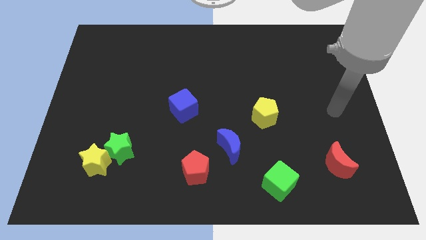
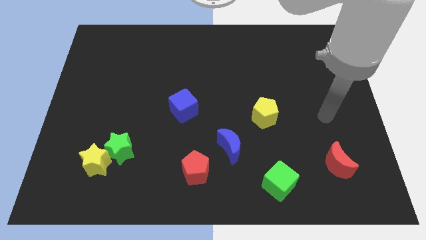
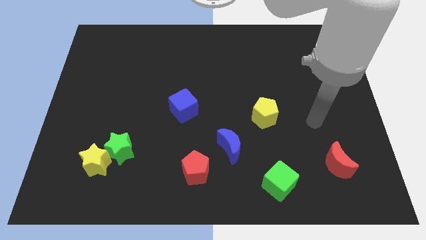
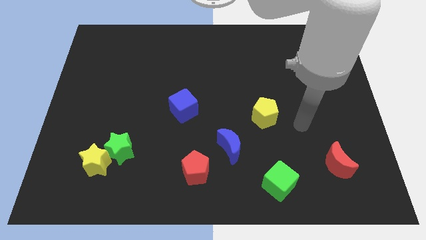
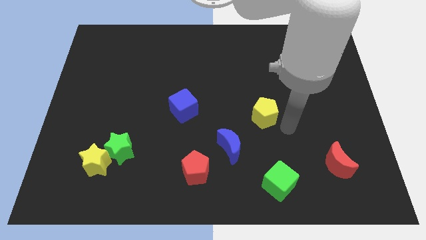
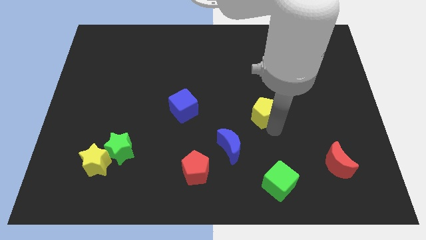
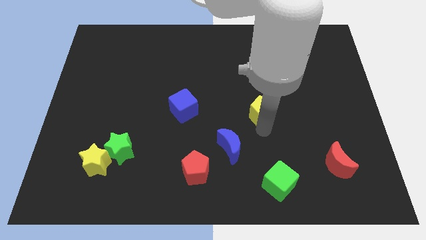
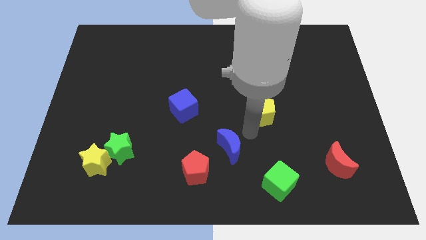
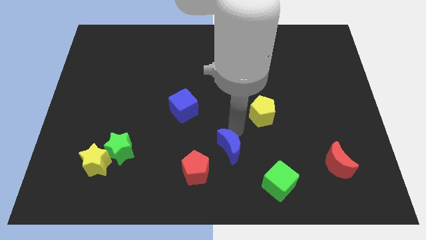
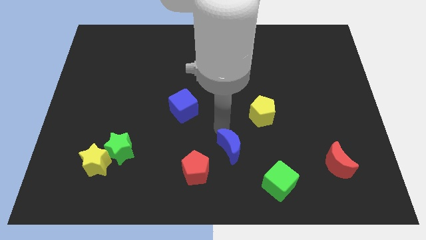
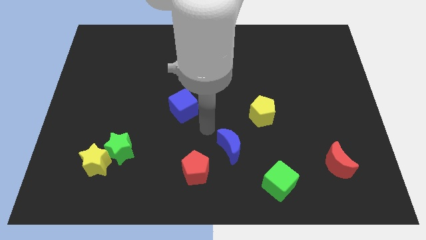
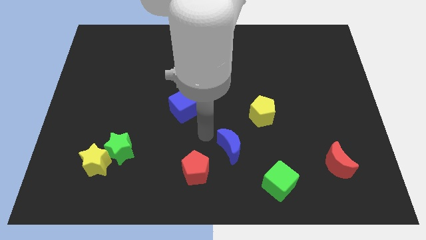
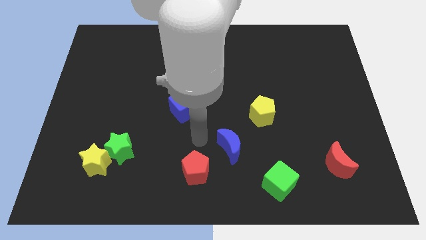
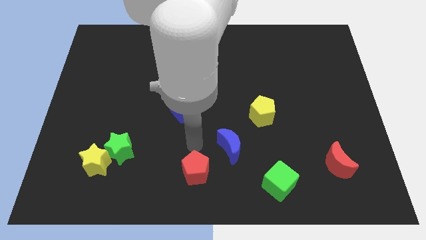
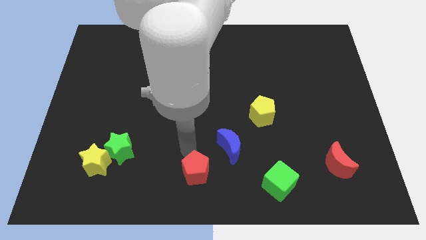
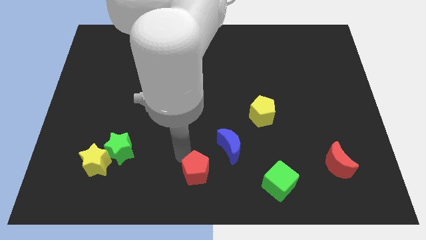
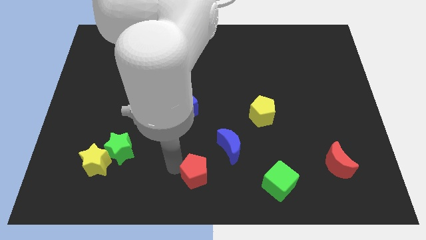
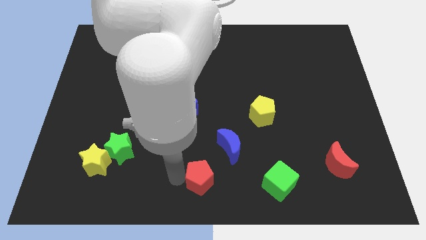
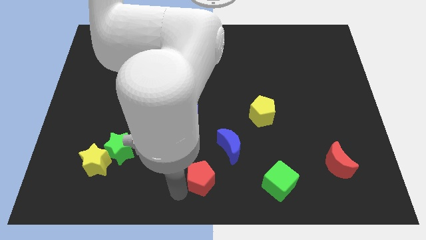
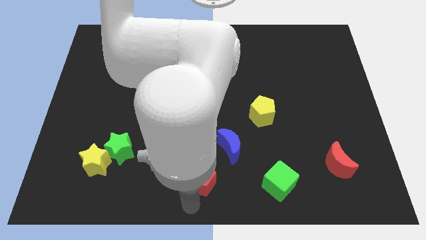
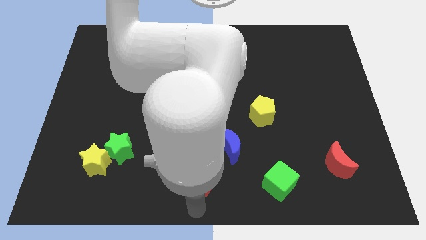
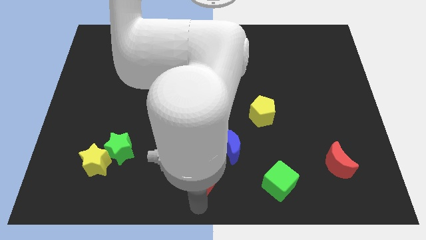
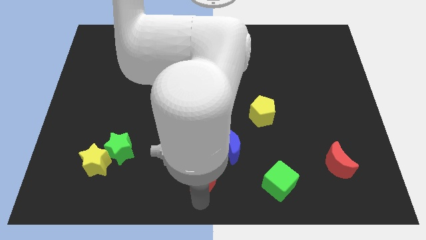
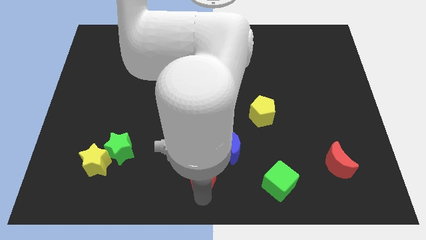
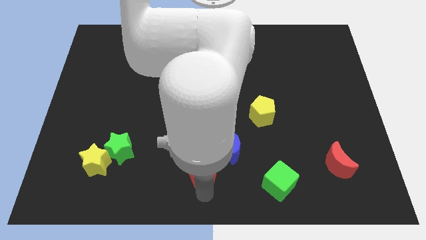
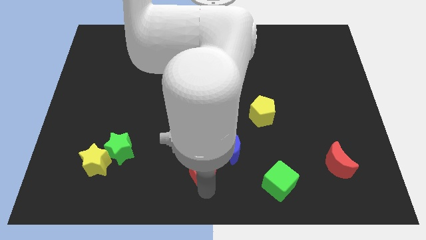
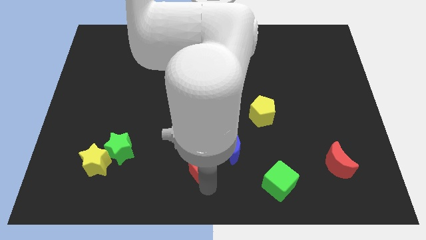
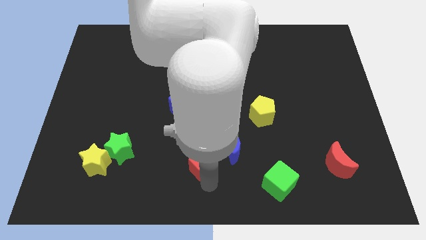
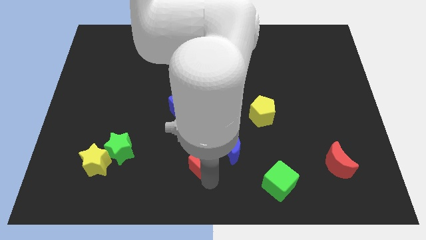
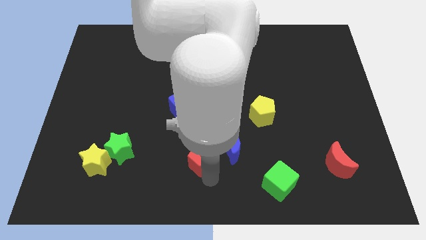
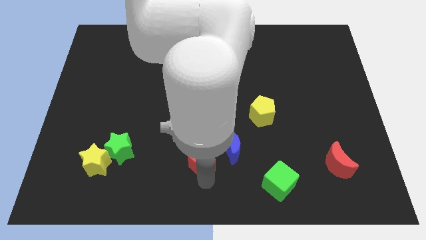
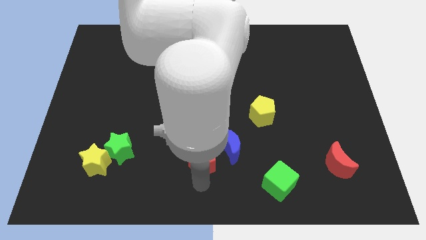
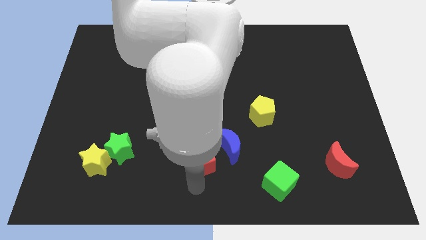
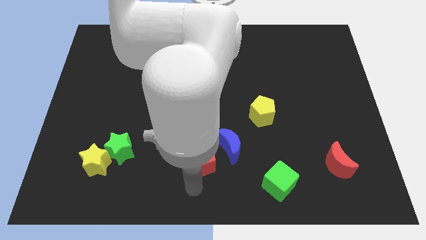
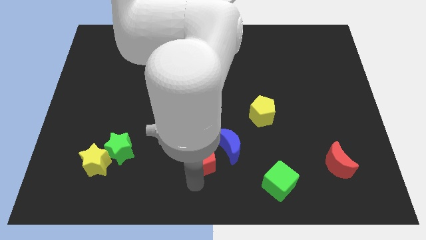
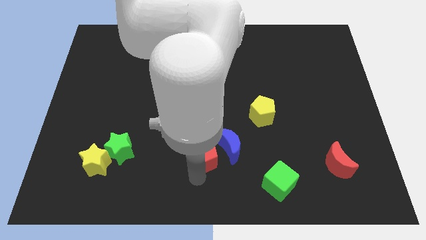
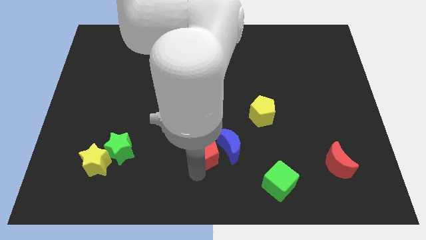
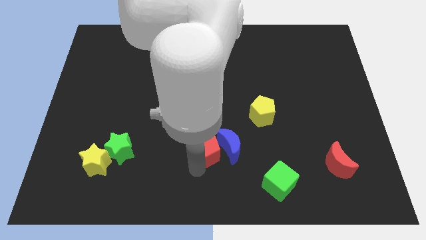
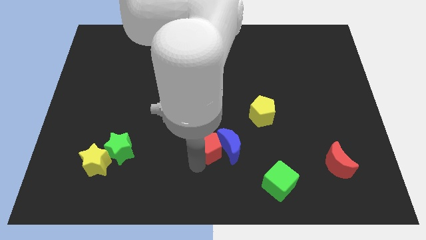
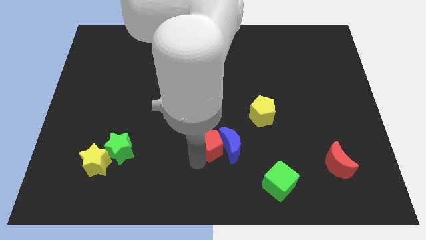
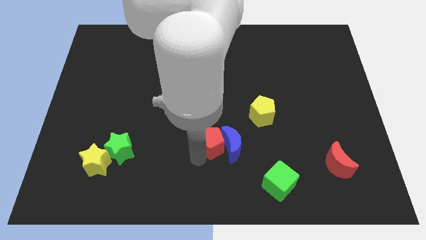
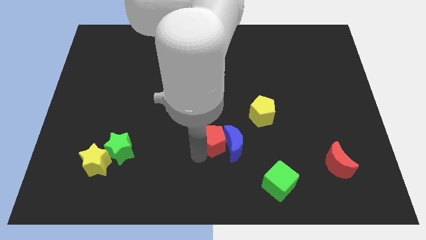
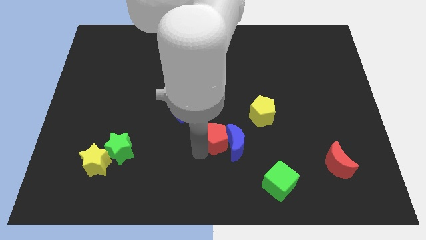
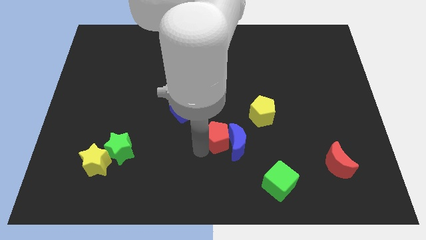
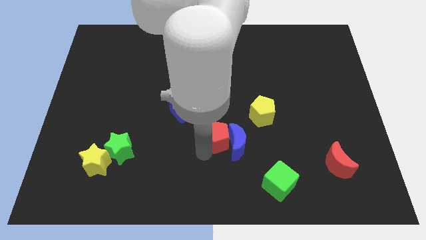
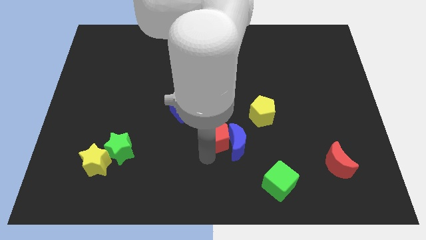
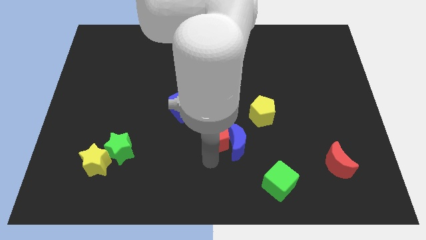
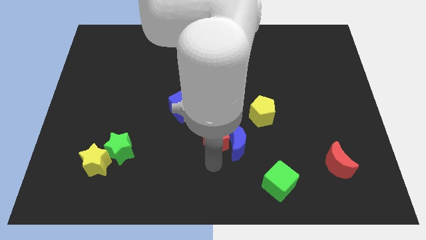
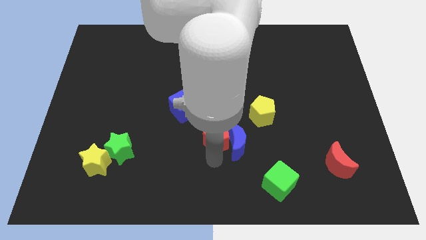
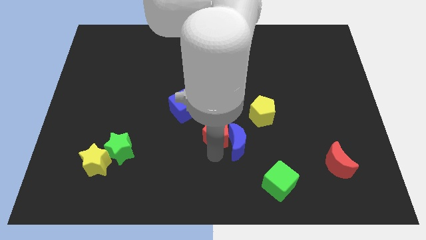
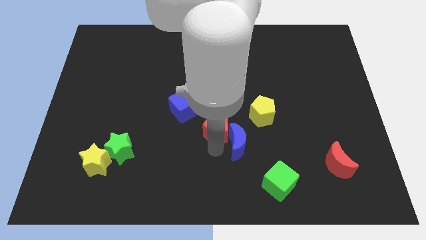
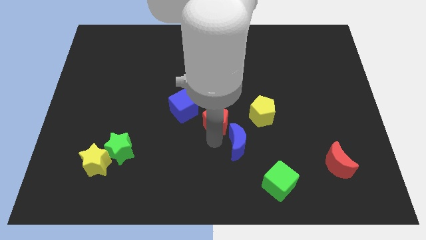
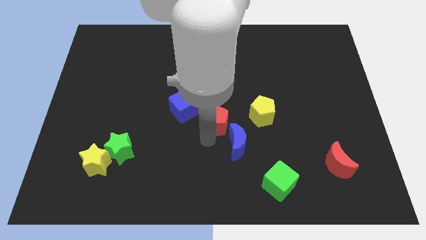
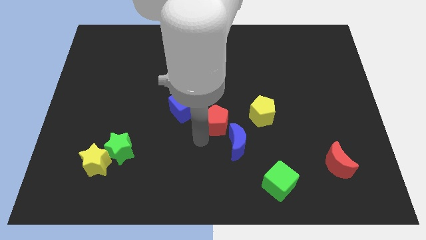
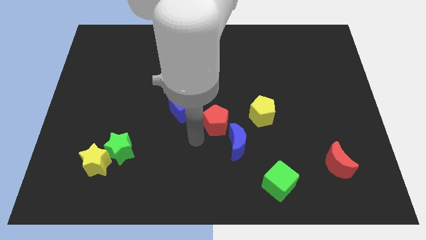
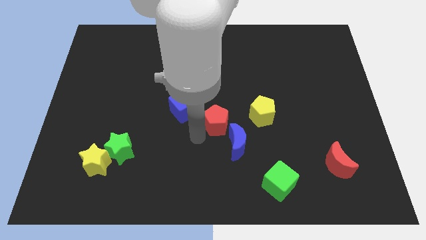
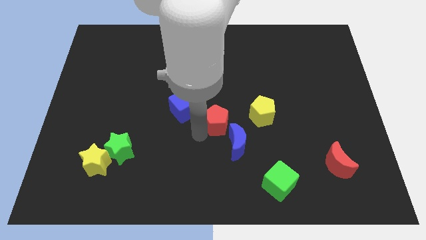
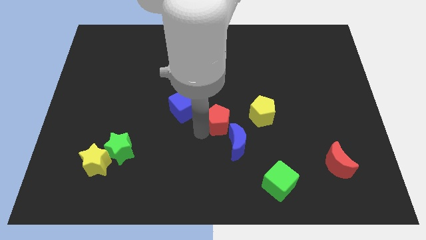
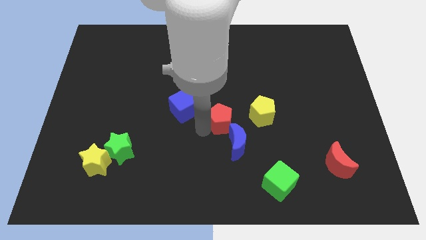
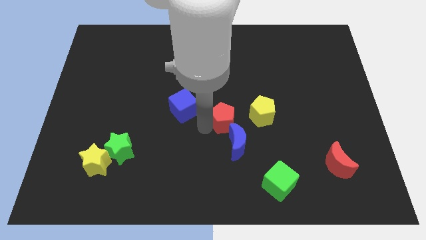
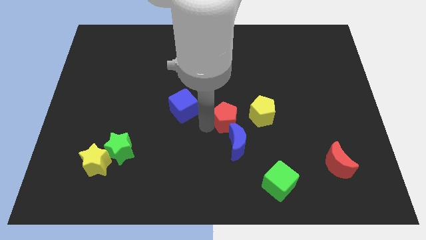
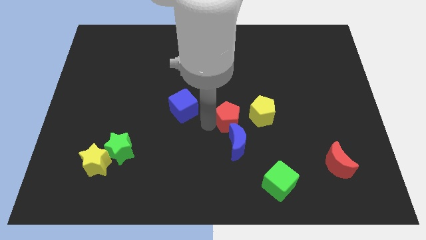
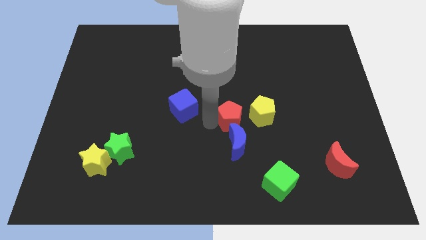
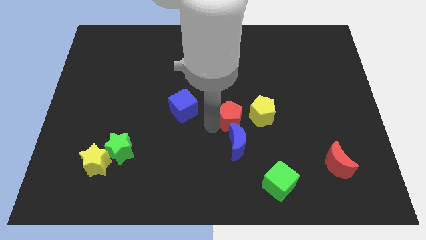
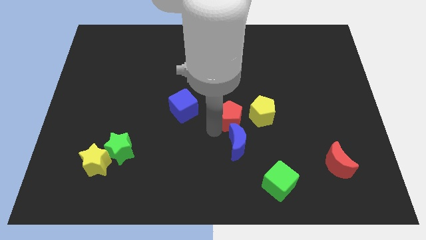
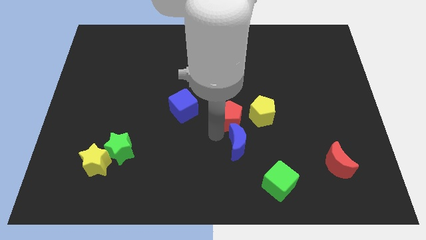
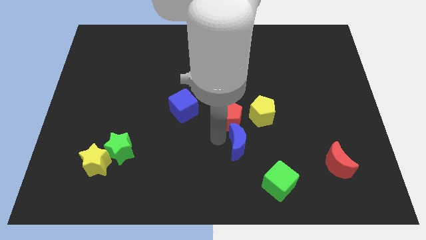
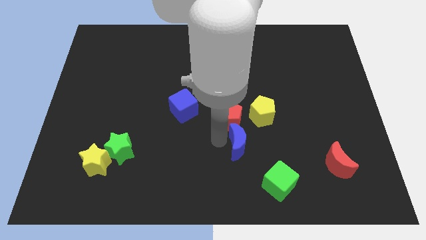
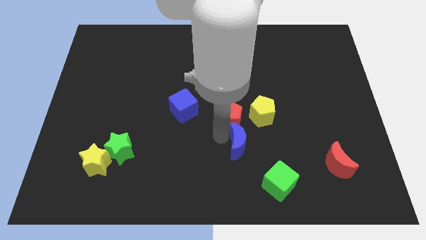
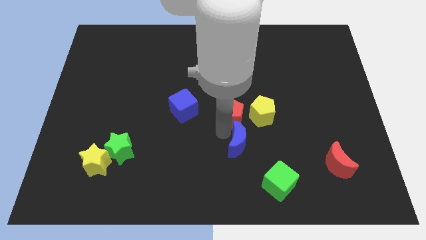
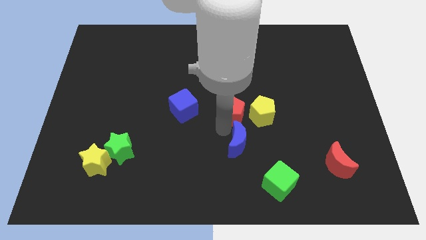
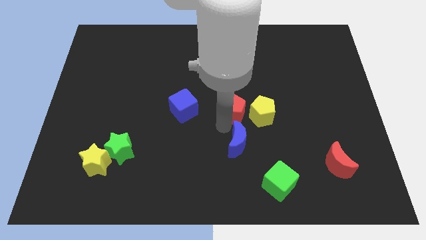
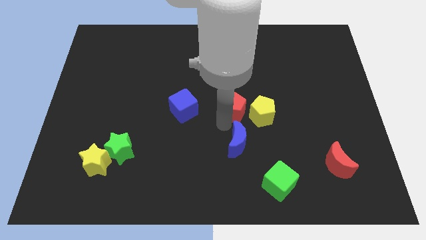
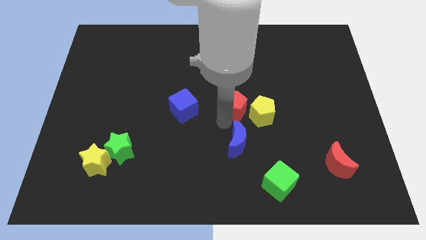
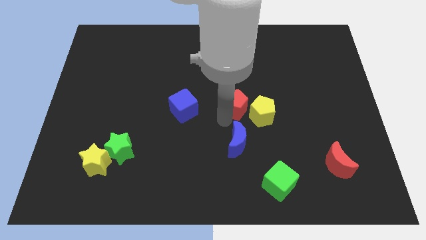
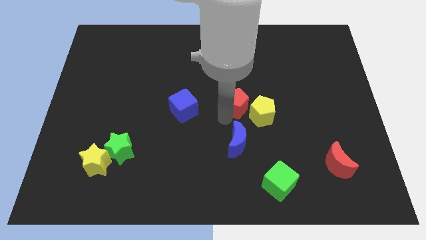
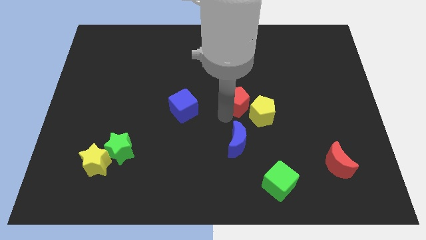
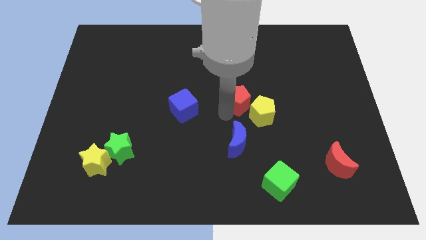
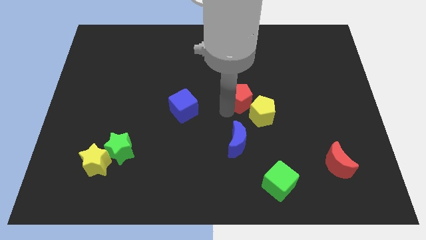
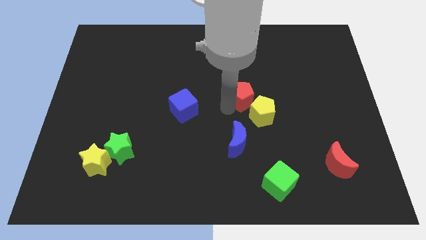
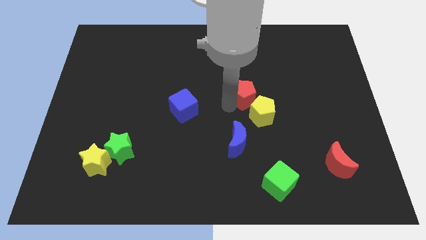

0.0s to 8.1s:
push the red pentagon diagonally upwards and to the right
